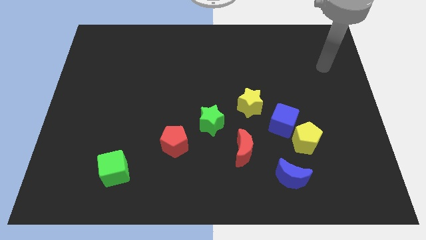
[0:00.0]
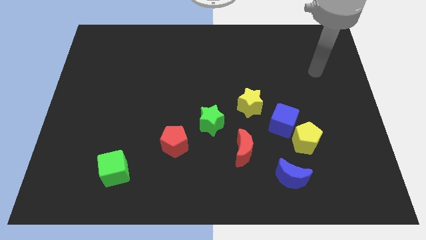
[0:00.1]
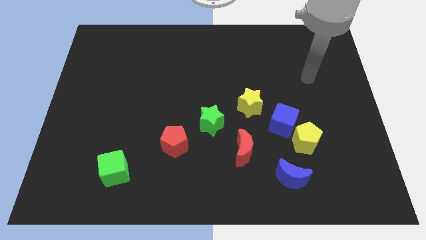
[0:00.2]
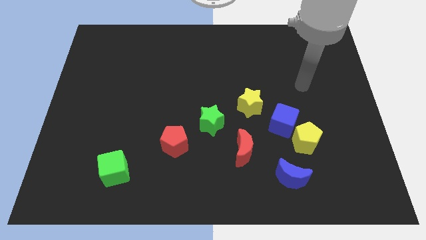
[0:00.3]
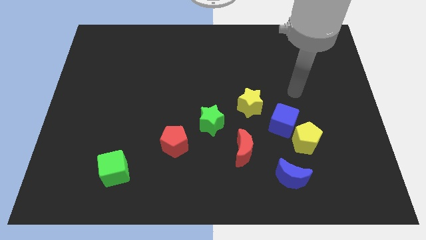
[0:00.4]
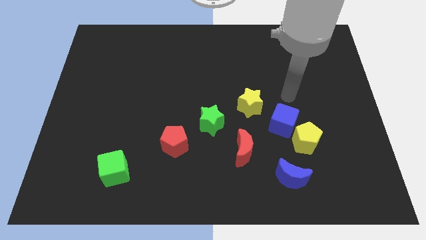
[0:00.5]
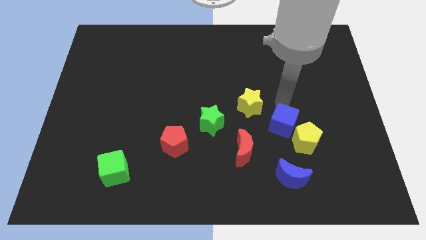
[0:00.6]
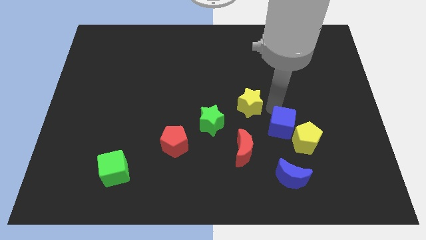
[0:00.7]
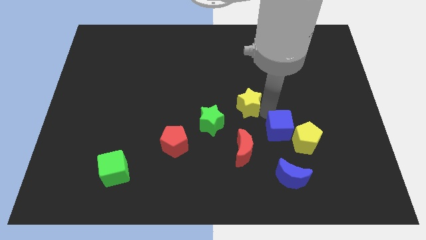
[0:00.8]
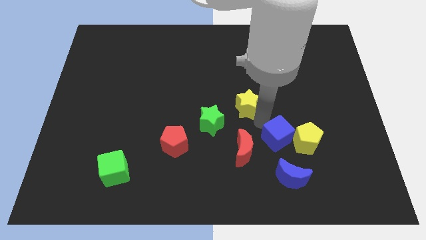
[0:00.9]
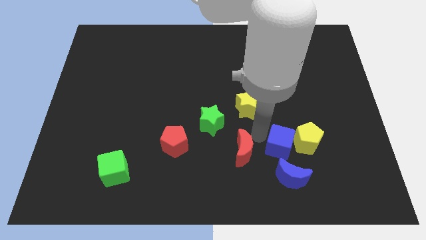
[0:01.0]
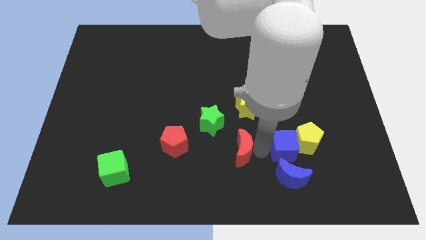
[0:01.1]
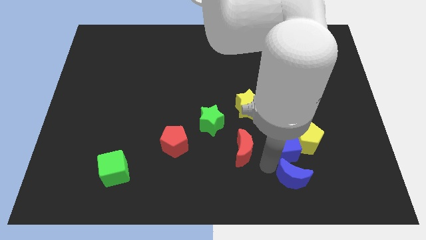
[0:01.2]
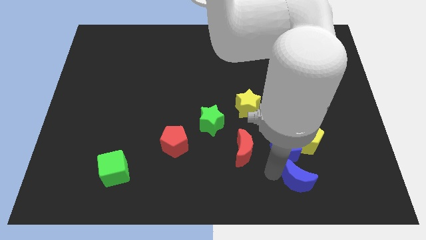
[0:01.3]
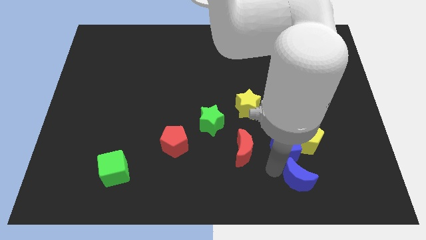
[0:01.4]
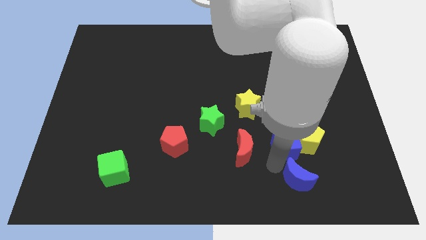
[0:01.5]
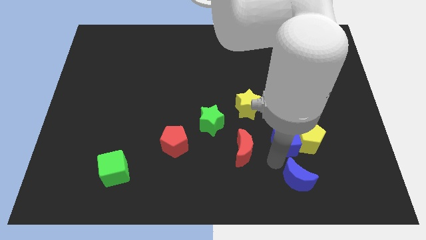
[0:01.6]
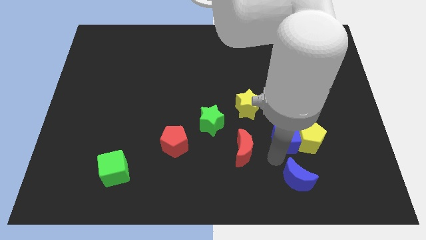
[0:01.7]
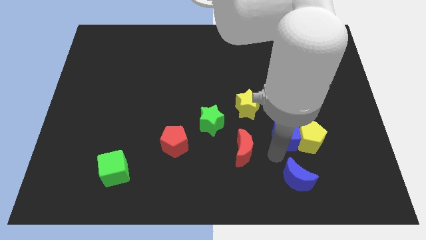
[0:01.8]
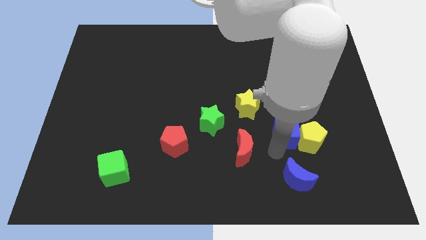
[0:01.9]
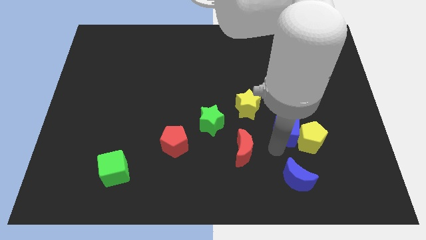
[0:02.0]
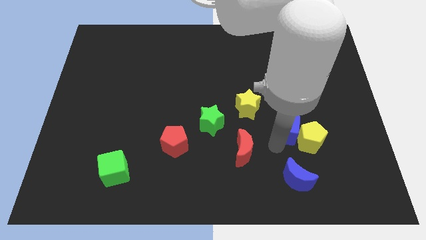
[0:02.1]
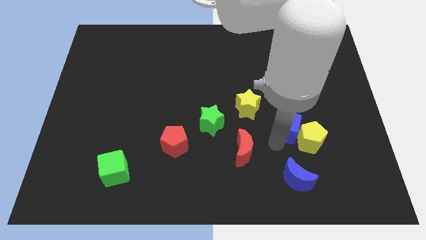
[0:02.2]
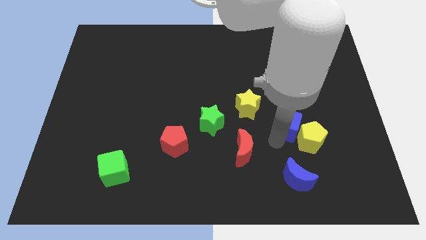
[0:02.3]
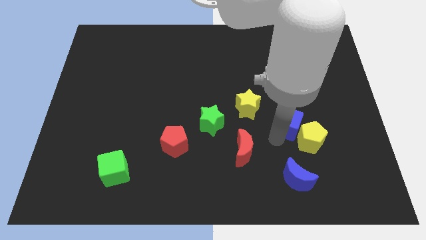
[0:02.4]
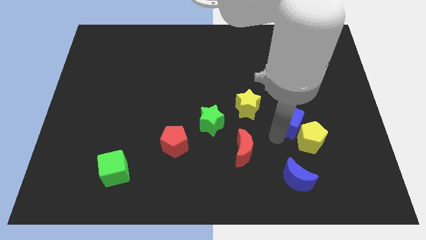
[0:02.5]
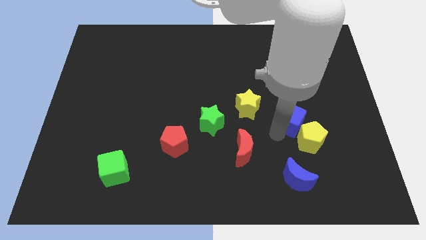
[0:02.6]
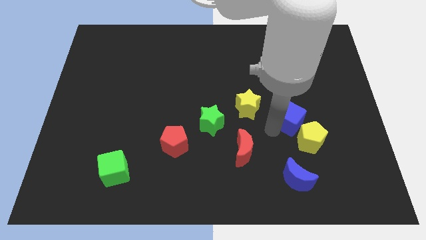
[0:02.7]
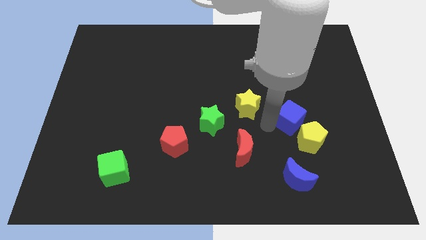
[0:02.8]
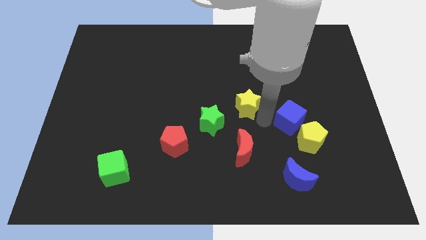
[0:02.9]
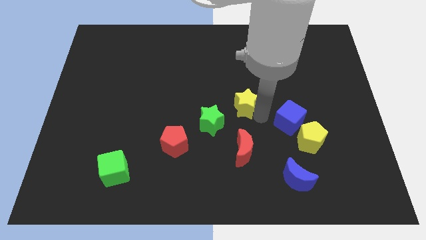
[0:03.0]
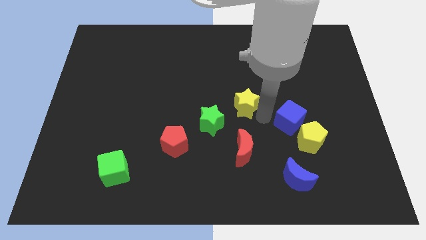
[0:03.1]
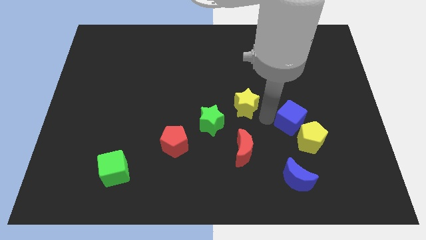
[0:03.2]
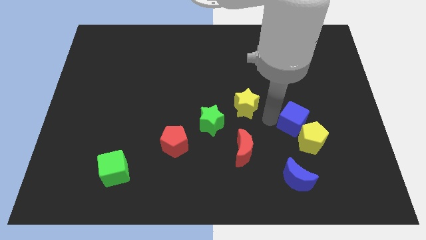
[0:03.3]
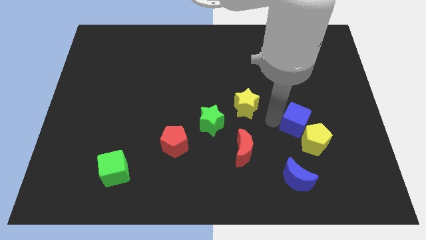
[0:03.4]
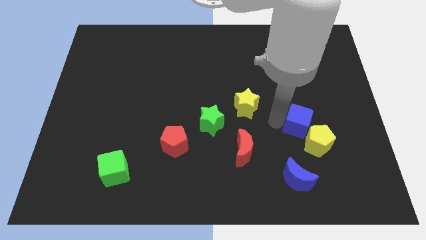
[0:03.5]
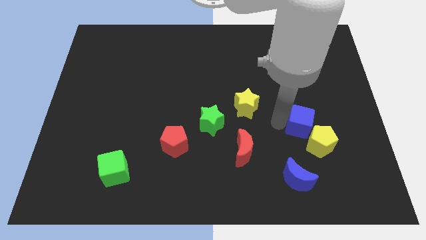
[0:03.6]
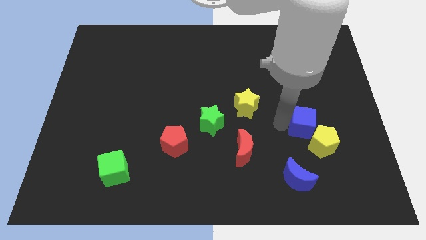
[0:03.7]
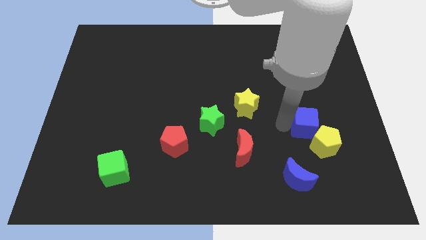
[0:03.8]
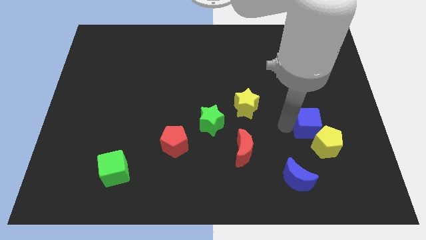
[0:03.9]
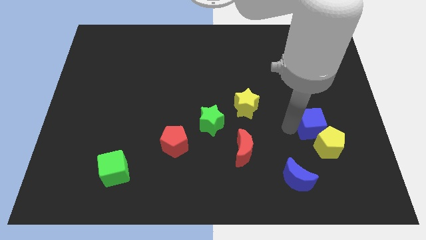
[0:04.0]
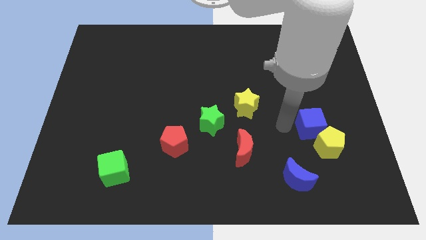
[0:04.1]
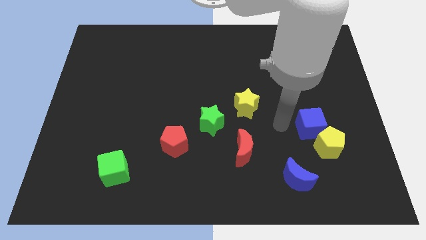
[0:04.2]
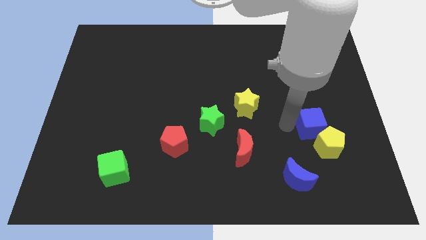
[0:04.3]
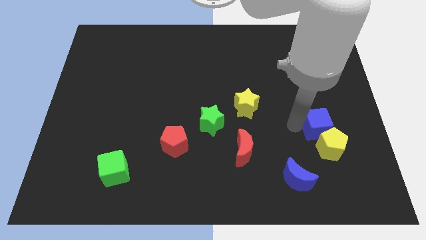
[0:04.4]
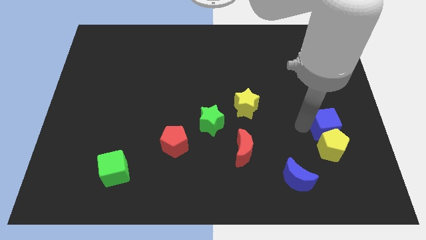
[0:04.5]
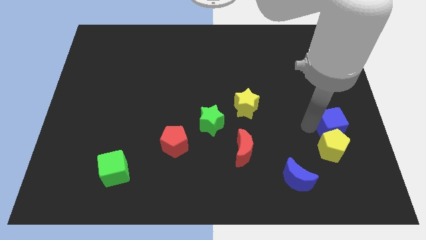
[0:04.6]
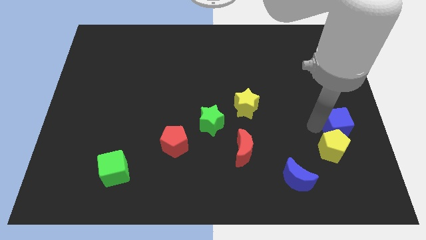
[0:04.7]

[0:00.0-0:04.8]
pull the blue cube apart from the yellow pentagon and yellow star

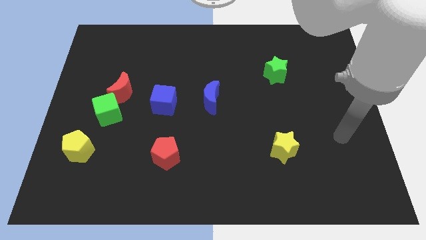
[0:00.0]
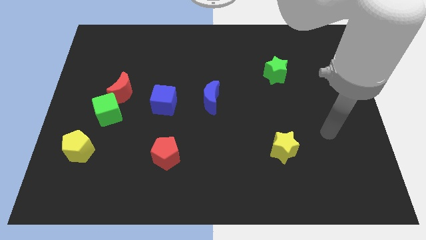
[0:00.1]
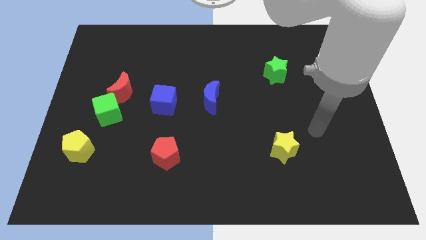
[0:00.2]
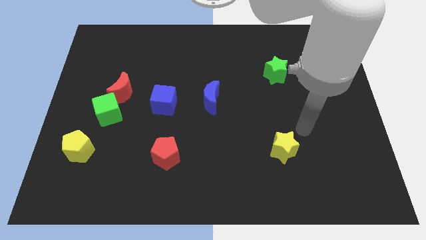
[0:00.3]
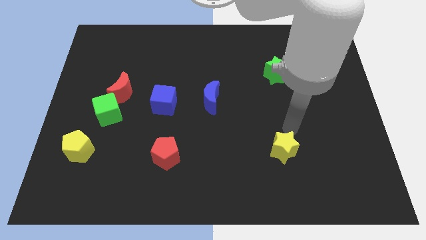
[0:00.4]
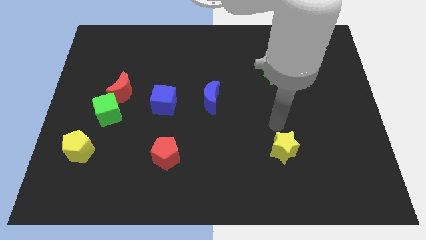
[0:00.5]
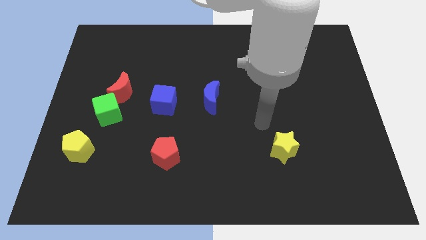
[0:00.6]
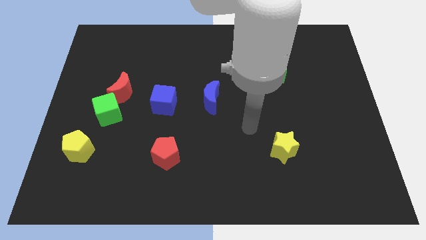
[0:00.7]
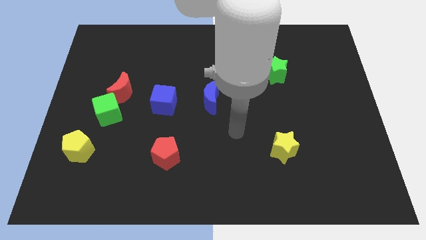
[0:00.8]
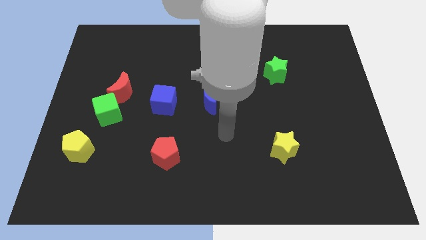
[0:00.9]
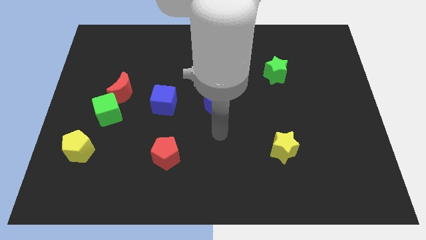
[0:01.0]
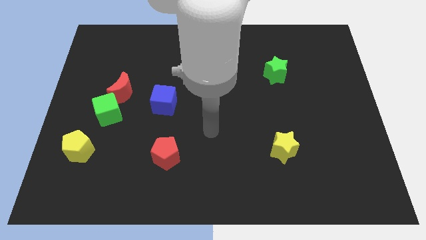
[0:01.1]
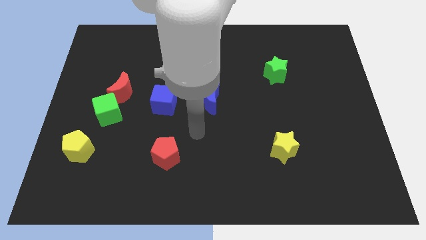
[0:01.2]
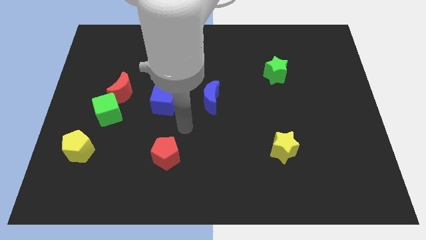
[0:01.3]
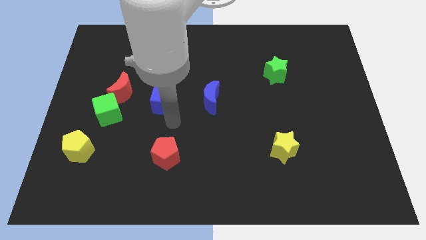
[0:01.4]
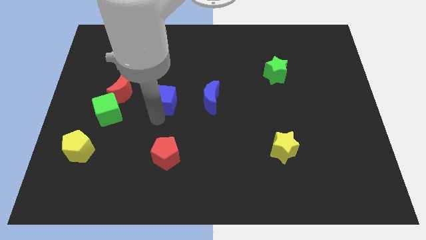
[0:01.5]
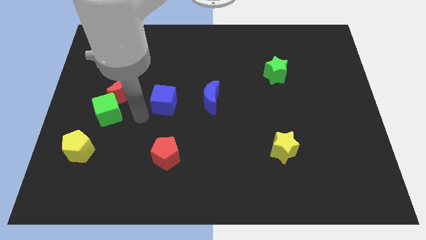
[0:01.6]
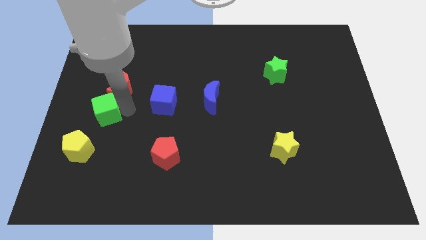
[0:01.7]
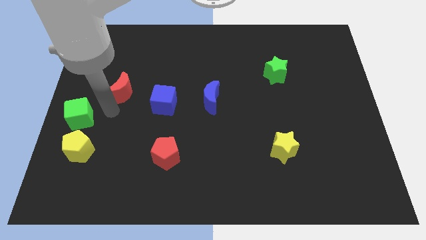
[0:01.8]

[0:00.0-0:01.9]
separate the red moon from the green cube

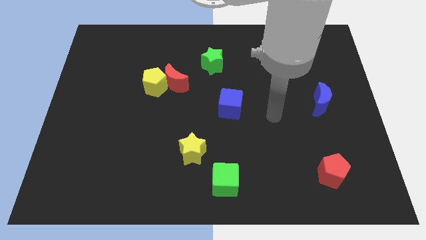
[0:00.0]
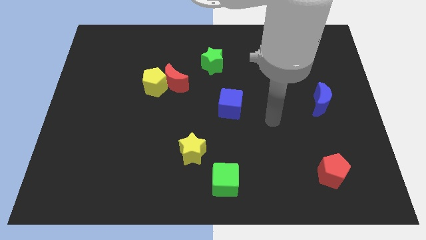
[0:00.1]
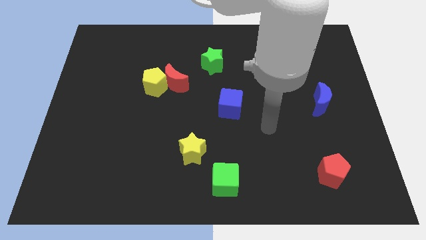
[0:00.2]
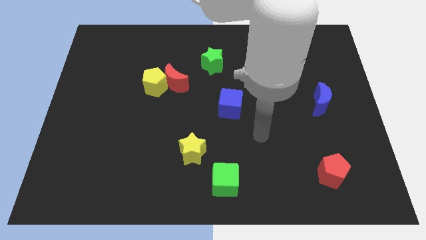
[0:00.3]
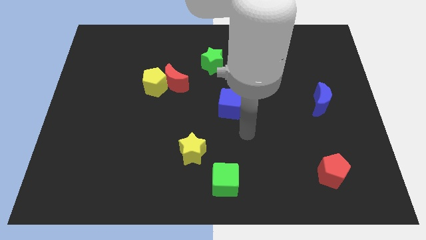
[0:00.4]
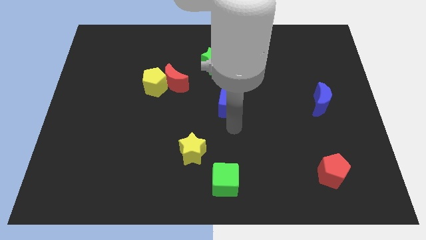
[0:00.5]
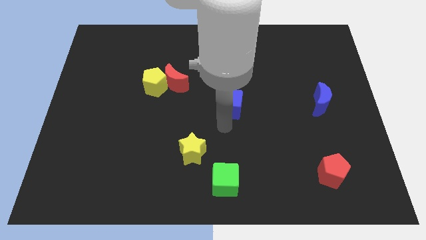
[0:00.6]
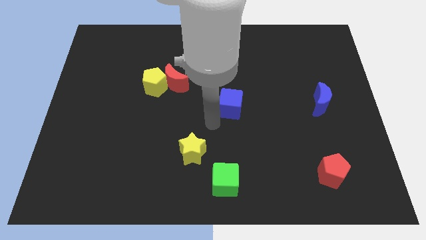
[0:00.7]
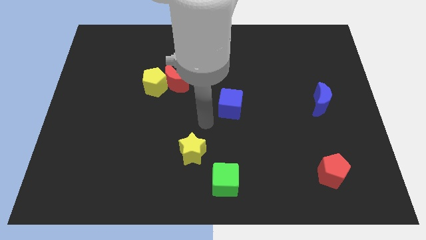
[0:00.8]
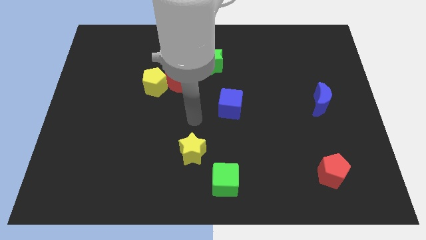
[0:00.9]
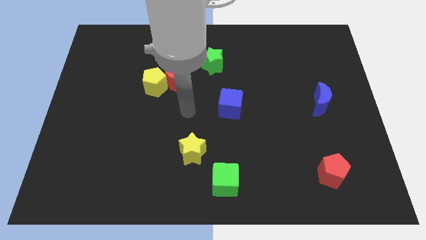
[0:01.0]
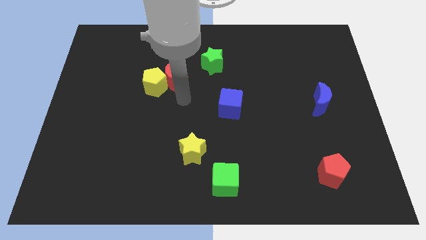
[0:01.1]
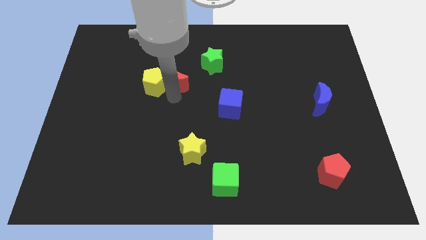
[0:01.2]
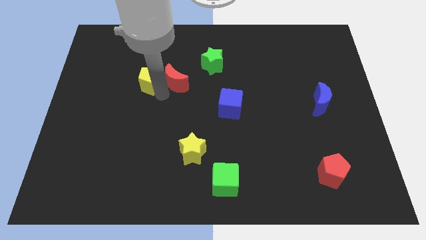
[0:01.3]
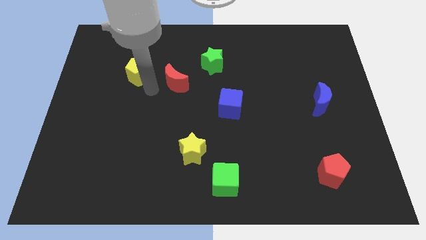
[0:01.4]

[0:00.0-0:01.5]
pull the red moon apart from the yellow pentagon

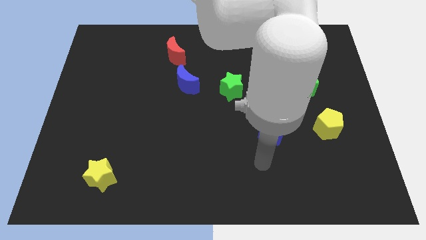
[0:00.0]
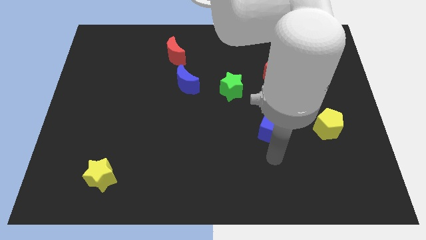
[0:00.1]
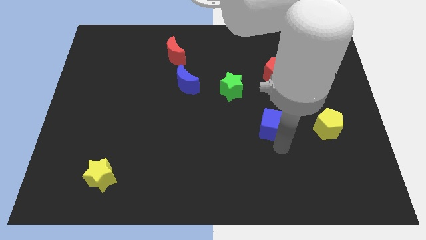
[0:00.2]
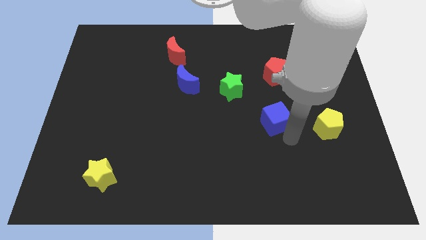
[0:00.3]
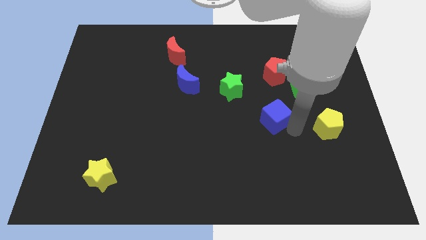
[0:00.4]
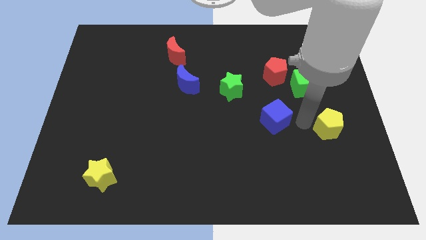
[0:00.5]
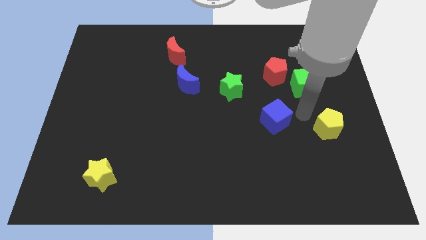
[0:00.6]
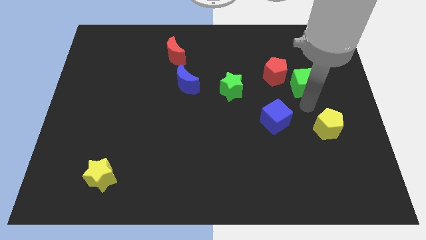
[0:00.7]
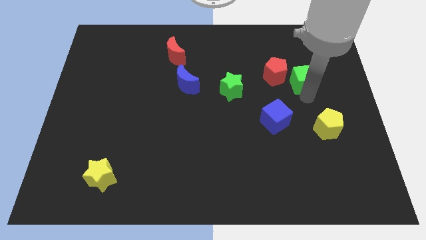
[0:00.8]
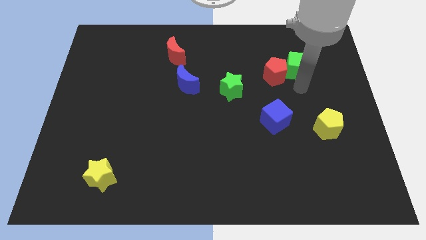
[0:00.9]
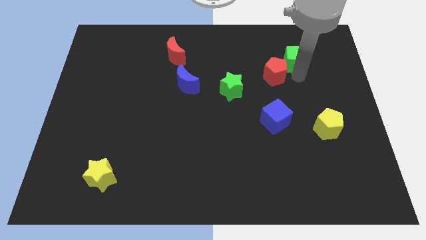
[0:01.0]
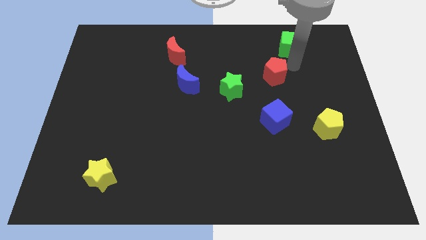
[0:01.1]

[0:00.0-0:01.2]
separate the red pentagon from the green cube
